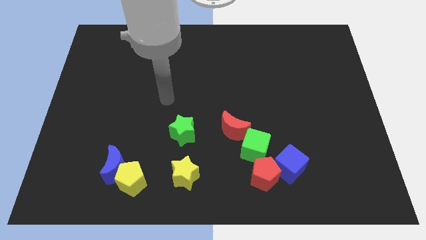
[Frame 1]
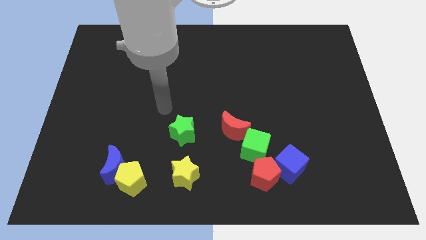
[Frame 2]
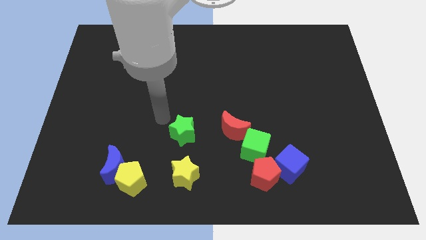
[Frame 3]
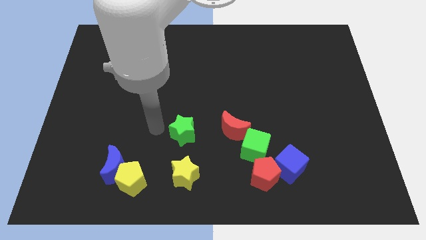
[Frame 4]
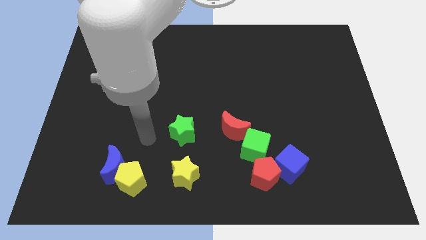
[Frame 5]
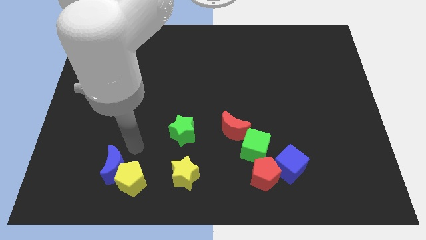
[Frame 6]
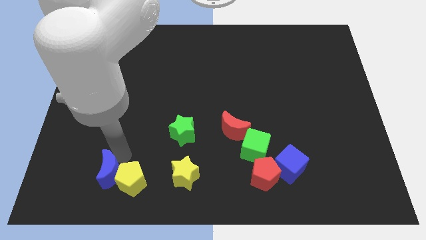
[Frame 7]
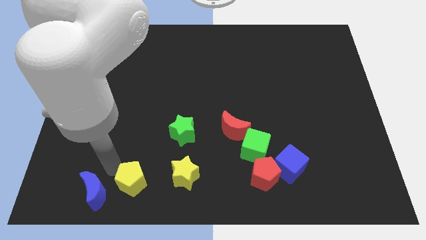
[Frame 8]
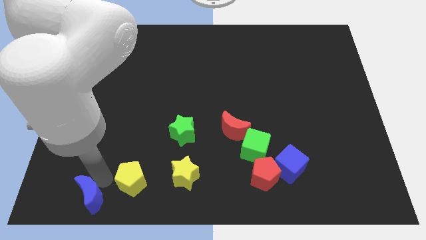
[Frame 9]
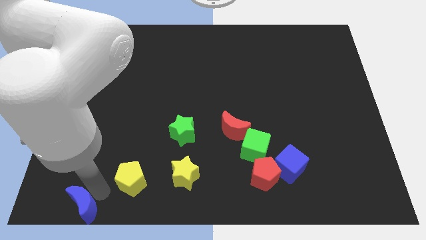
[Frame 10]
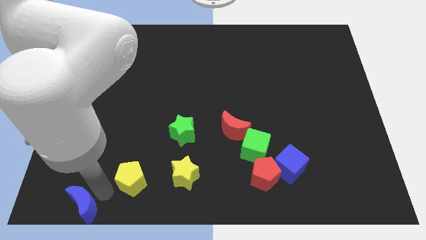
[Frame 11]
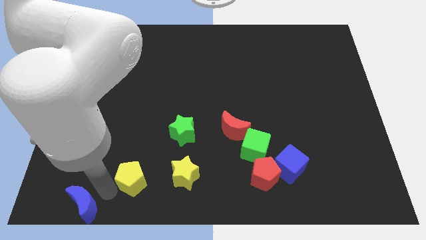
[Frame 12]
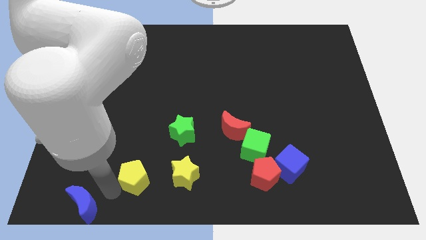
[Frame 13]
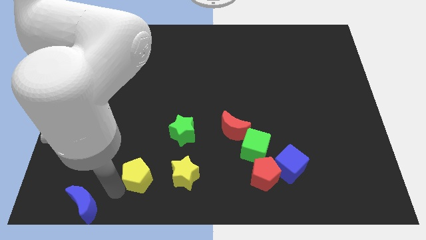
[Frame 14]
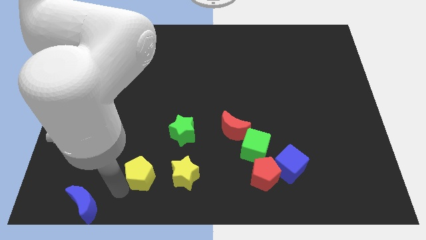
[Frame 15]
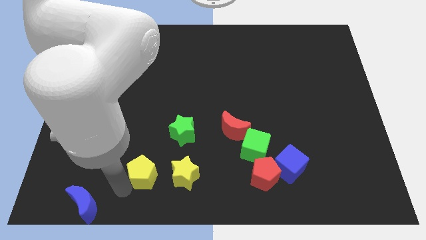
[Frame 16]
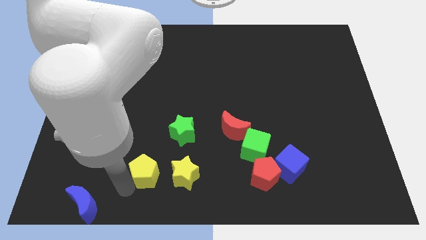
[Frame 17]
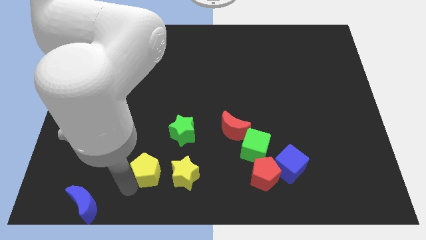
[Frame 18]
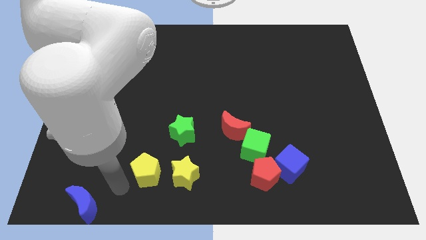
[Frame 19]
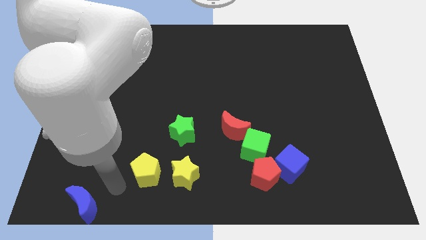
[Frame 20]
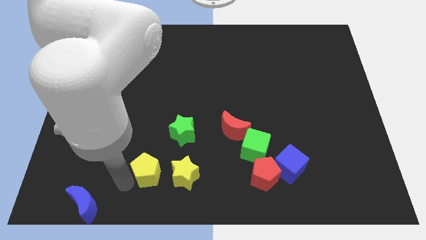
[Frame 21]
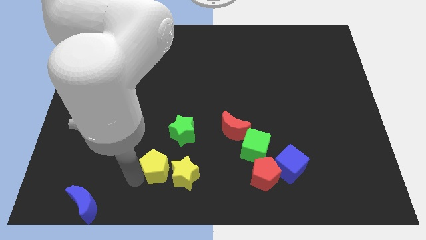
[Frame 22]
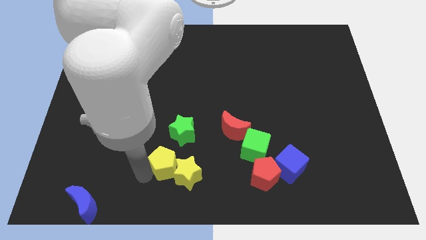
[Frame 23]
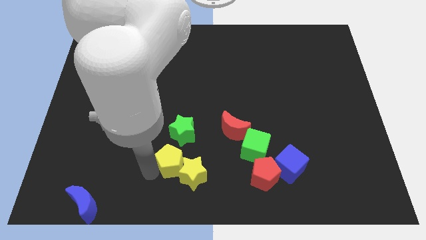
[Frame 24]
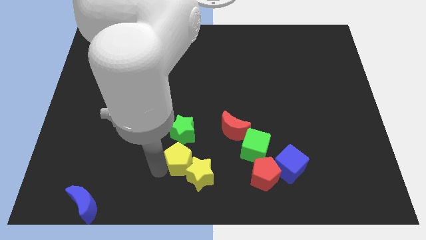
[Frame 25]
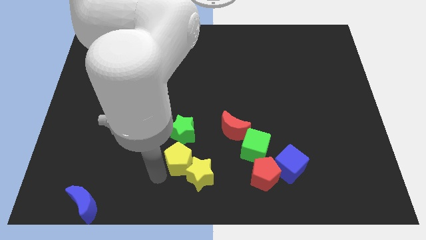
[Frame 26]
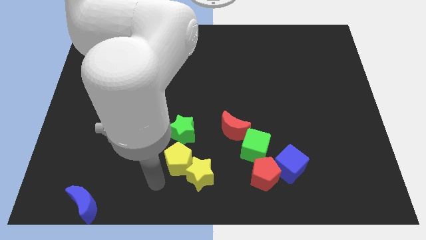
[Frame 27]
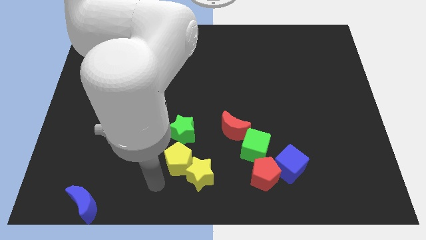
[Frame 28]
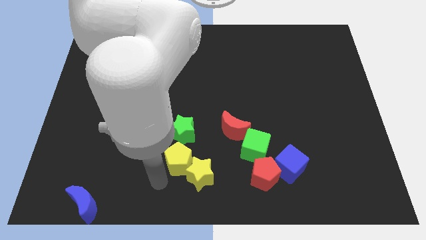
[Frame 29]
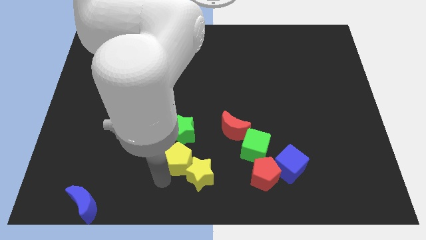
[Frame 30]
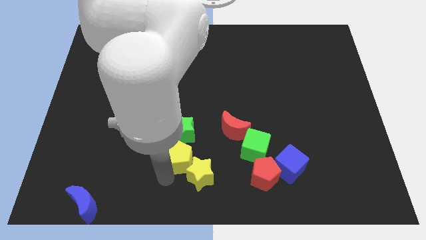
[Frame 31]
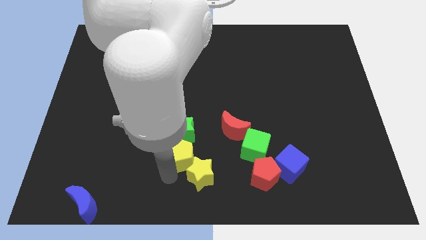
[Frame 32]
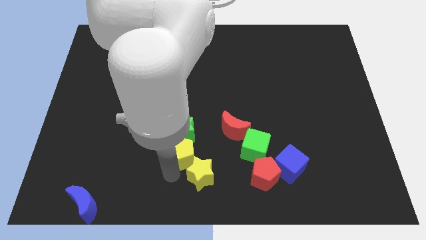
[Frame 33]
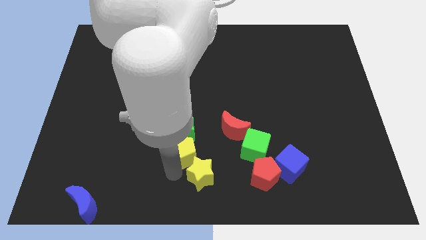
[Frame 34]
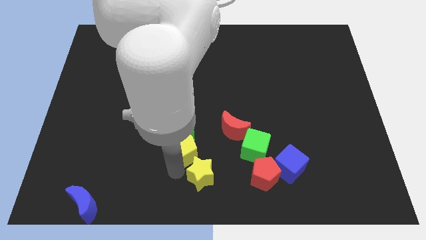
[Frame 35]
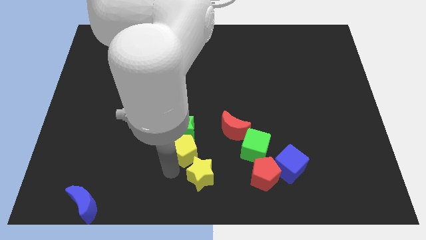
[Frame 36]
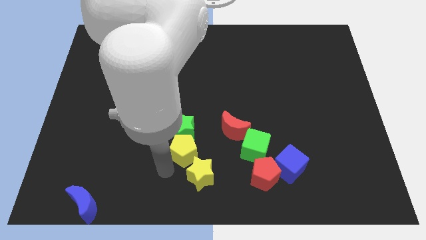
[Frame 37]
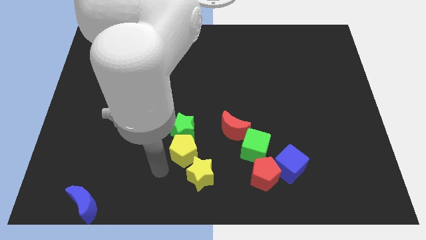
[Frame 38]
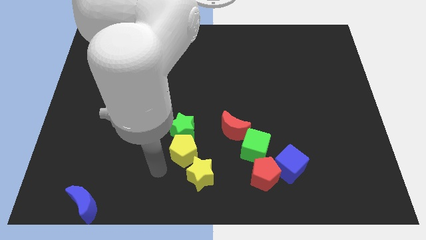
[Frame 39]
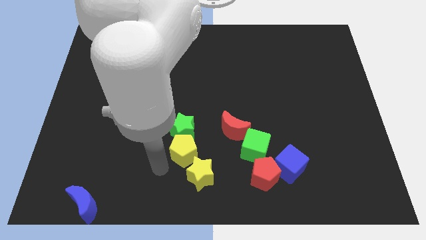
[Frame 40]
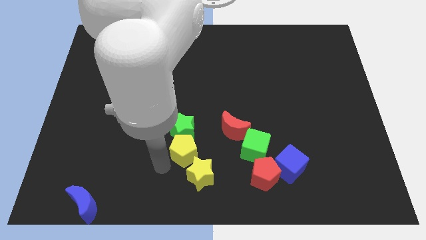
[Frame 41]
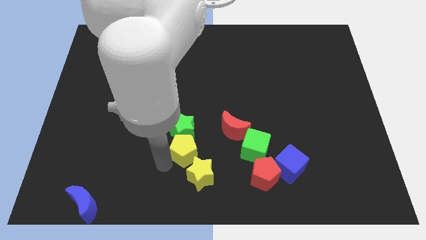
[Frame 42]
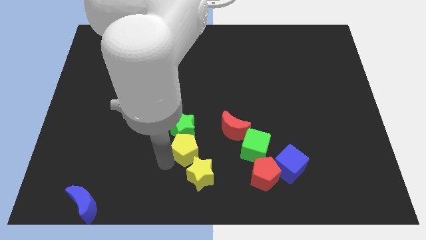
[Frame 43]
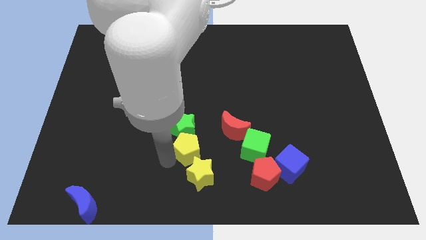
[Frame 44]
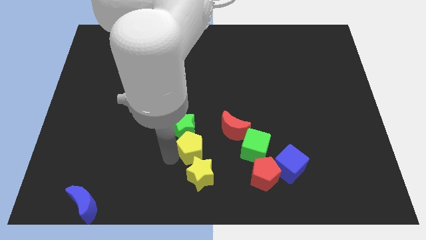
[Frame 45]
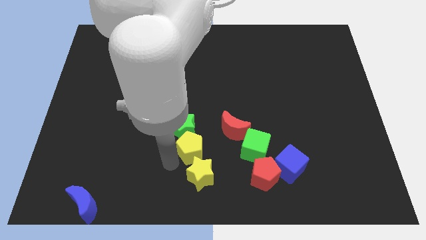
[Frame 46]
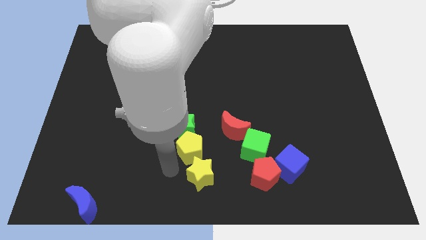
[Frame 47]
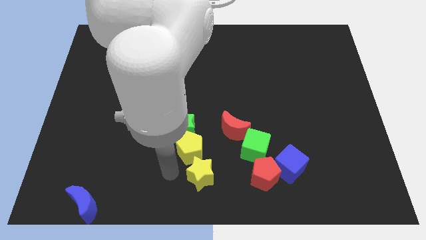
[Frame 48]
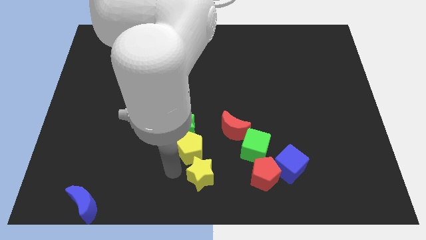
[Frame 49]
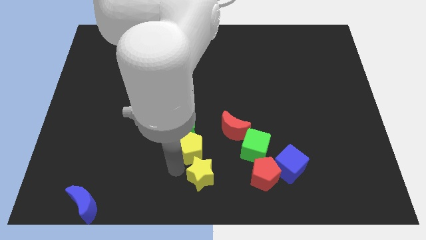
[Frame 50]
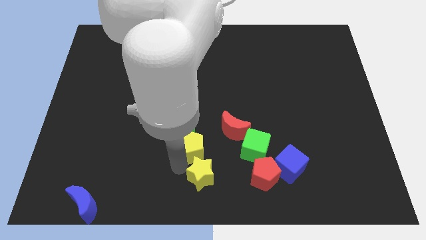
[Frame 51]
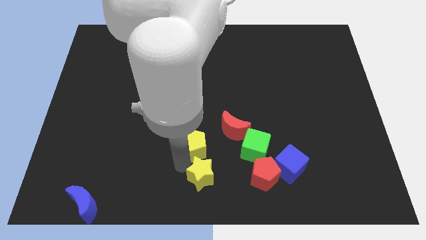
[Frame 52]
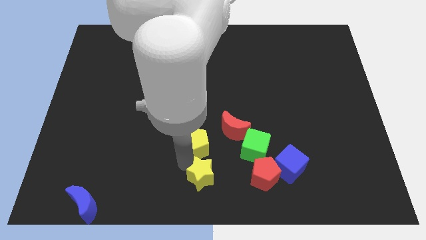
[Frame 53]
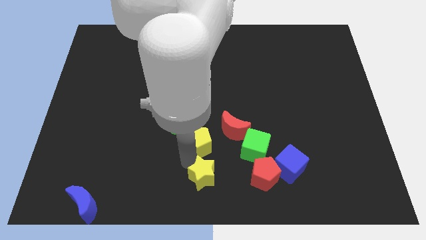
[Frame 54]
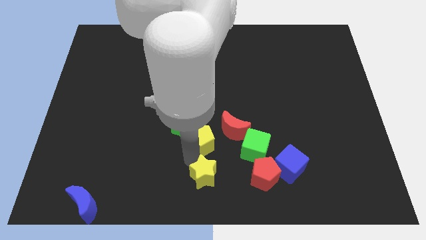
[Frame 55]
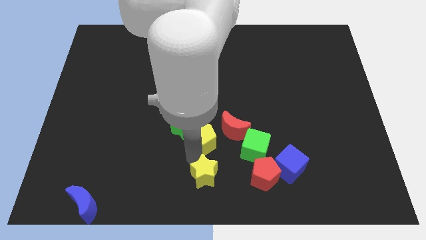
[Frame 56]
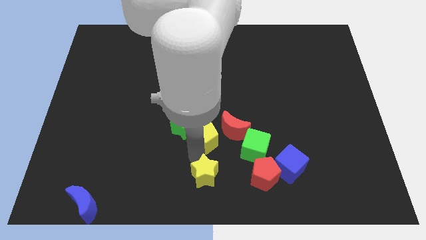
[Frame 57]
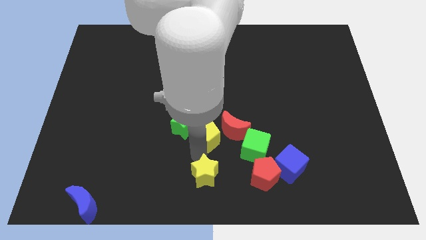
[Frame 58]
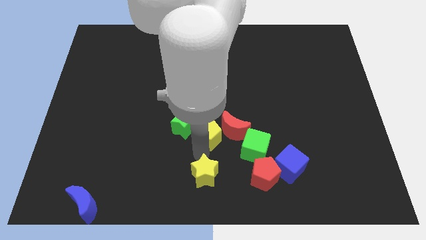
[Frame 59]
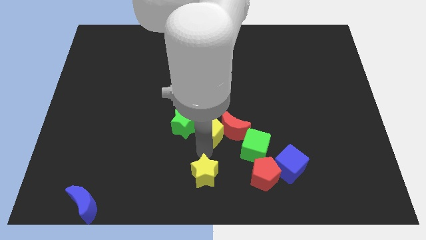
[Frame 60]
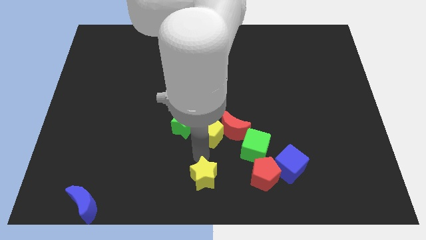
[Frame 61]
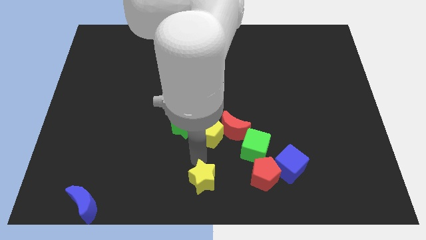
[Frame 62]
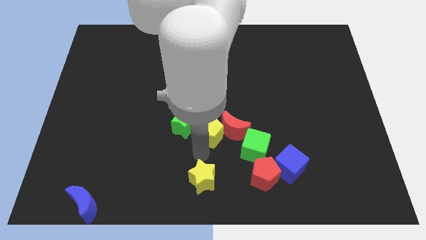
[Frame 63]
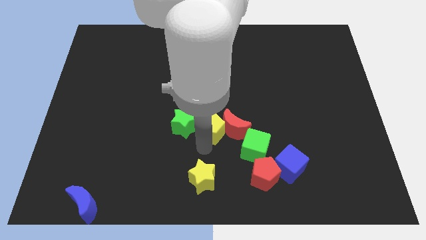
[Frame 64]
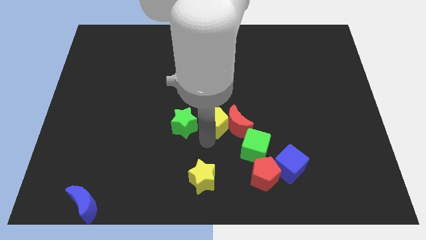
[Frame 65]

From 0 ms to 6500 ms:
slide the yellow pentagon diagonally up and to the right

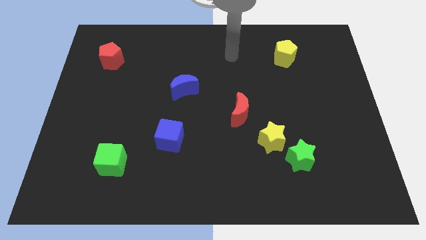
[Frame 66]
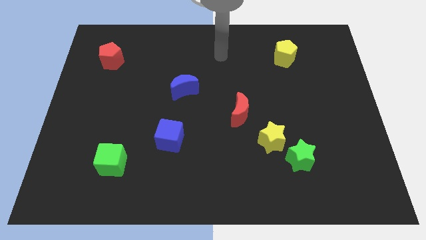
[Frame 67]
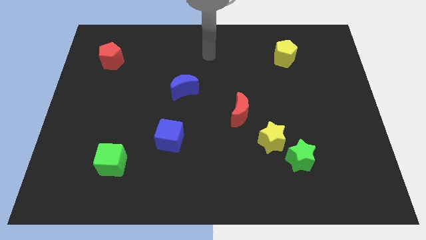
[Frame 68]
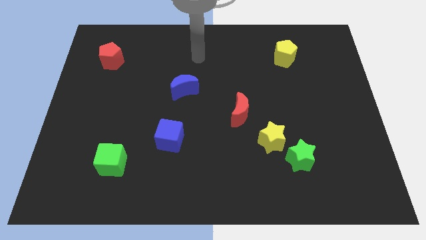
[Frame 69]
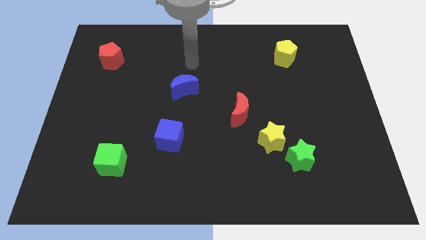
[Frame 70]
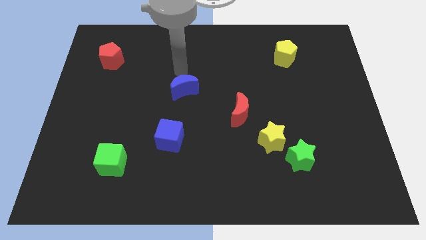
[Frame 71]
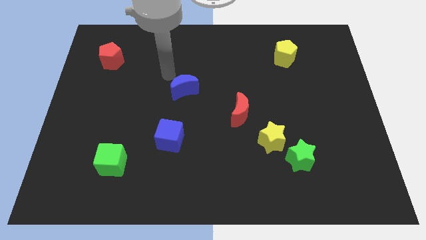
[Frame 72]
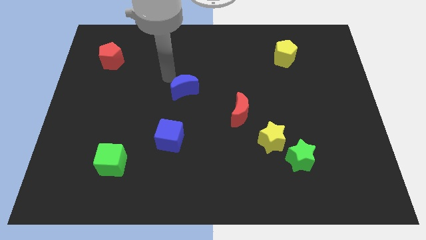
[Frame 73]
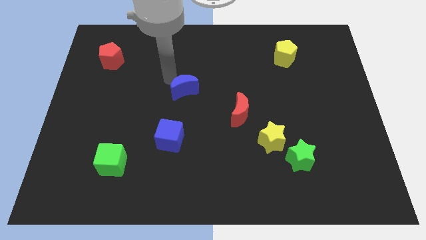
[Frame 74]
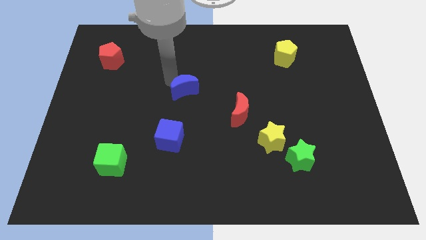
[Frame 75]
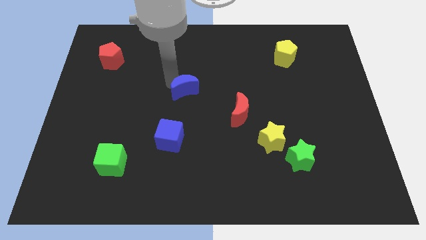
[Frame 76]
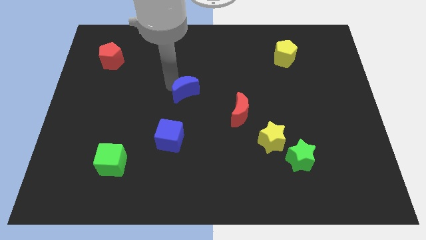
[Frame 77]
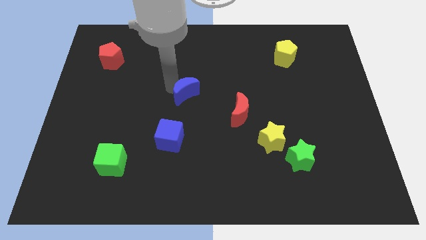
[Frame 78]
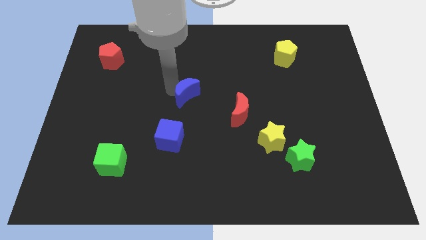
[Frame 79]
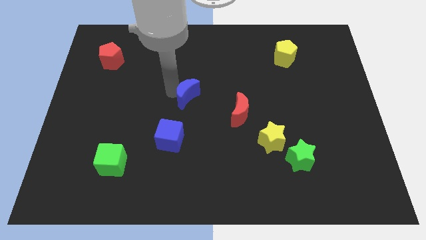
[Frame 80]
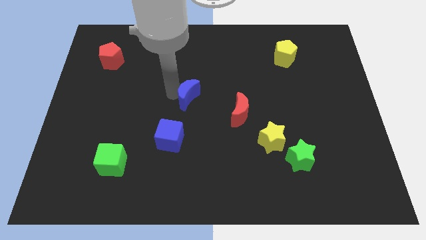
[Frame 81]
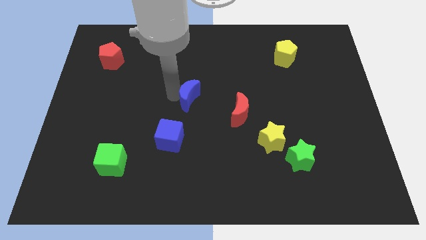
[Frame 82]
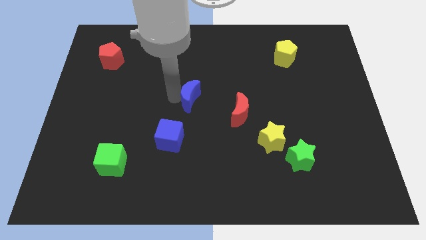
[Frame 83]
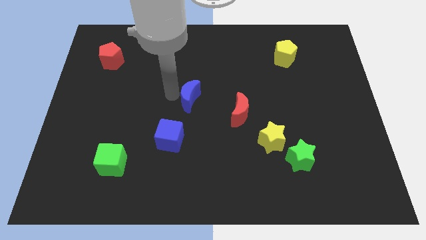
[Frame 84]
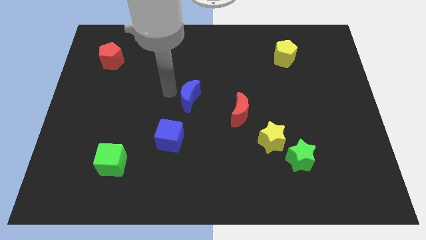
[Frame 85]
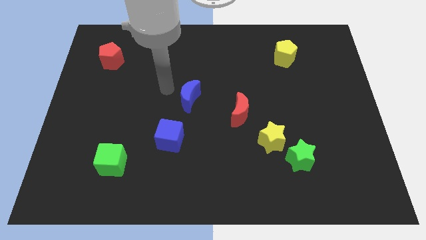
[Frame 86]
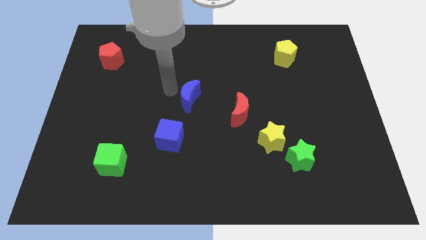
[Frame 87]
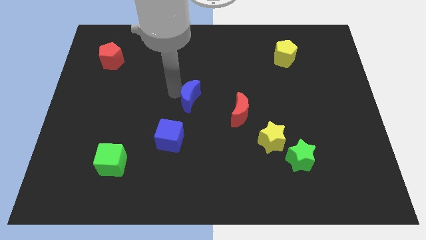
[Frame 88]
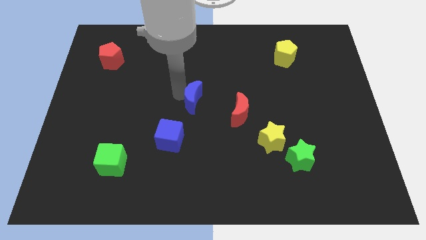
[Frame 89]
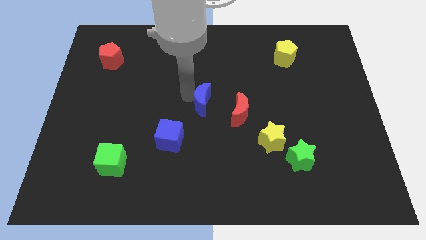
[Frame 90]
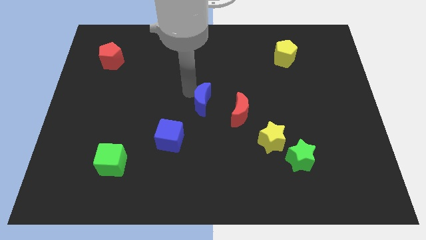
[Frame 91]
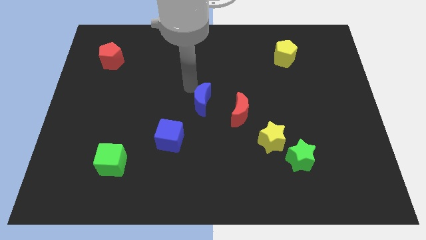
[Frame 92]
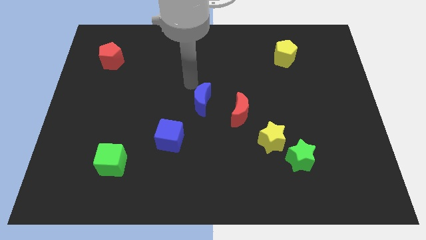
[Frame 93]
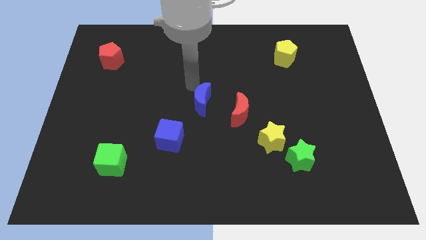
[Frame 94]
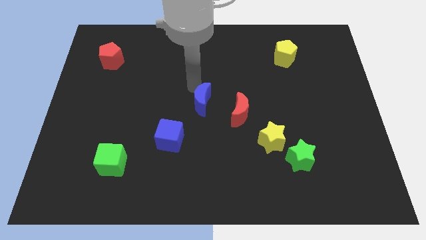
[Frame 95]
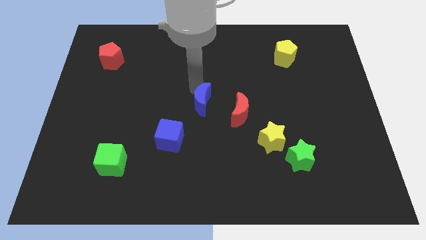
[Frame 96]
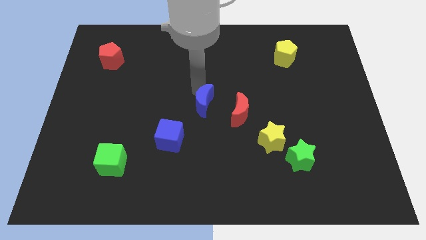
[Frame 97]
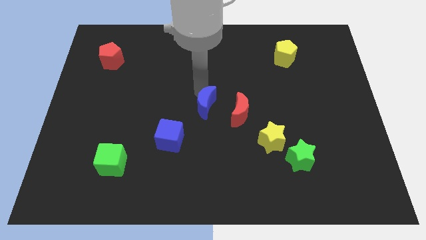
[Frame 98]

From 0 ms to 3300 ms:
slightly push the blue moon down and then right
